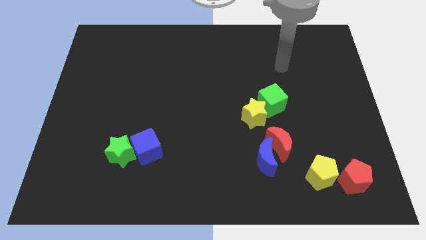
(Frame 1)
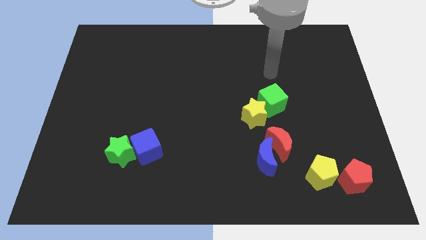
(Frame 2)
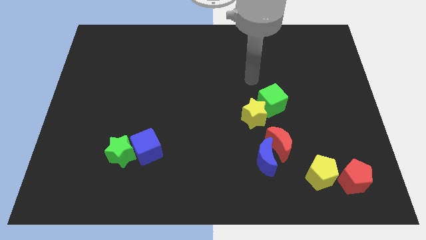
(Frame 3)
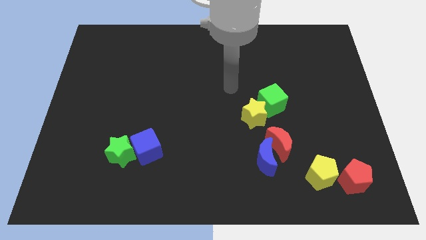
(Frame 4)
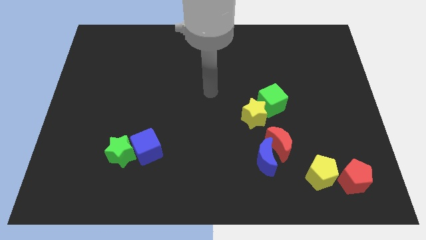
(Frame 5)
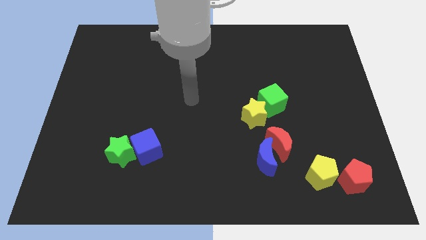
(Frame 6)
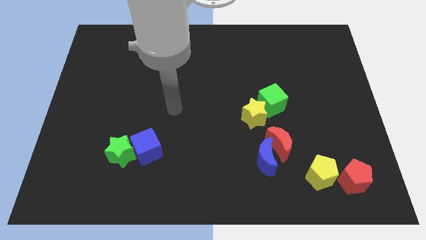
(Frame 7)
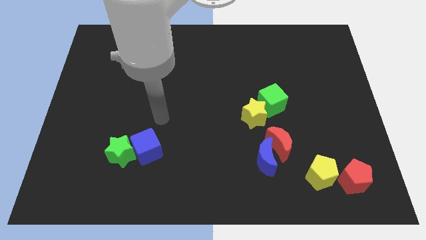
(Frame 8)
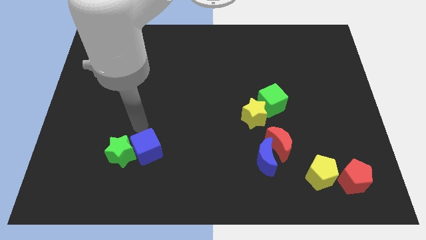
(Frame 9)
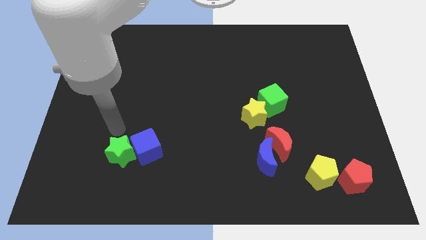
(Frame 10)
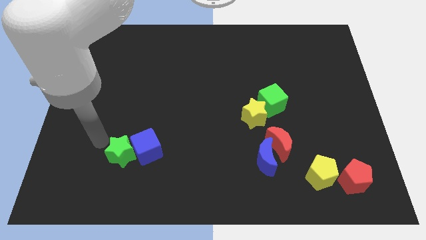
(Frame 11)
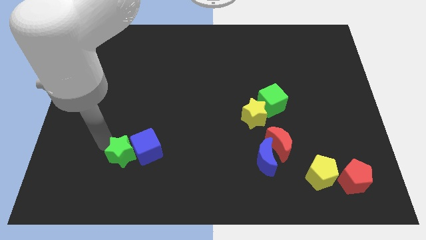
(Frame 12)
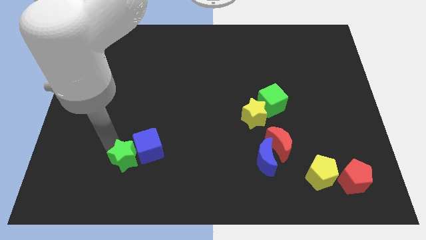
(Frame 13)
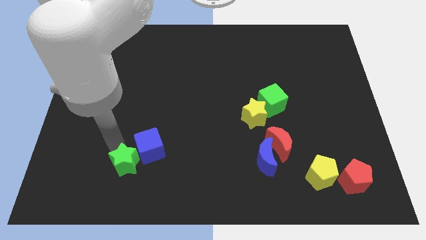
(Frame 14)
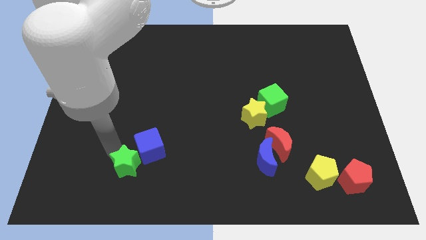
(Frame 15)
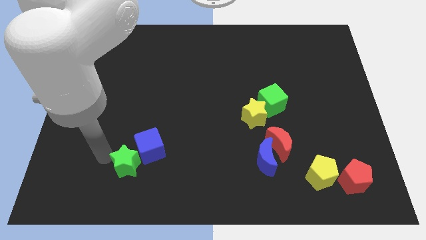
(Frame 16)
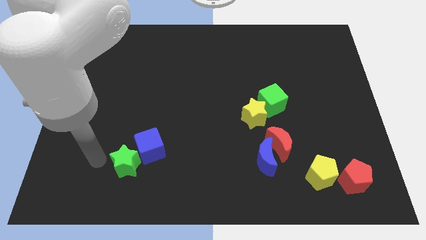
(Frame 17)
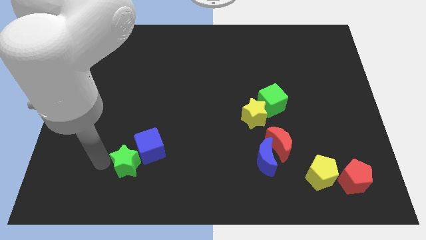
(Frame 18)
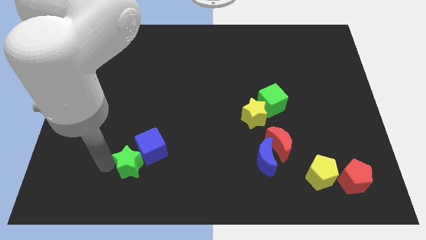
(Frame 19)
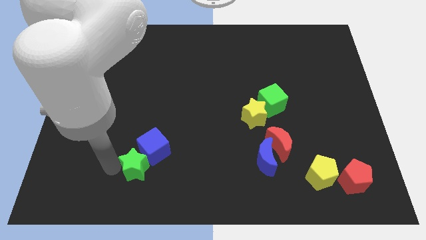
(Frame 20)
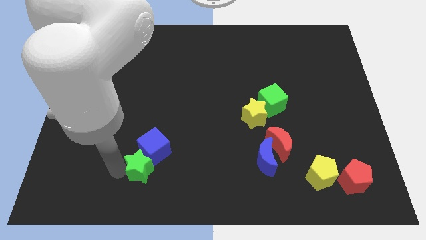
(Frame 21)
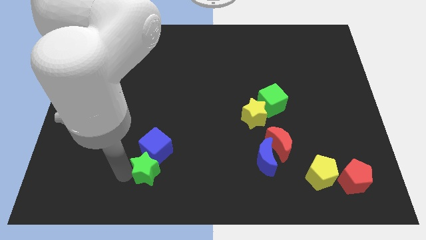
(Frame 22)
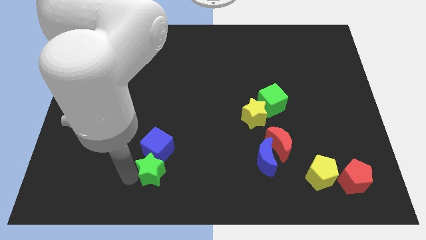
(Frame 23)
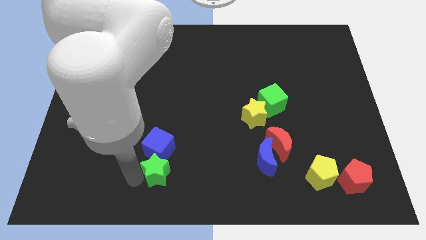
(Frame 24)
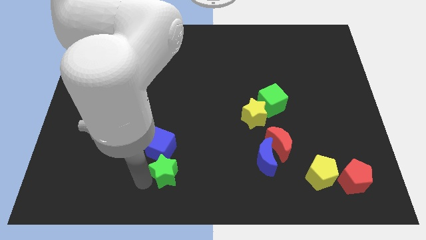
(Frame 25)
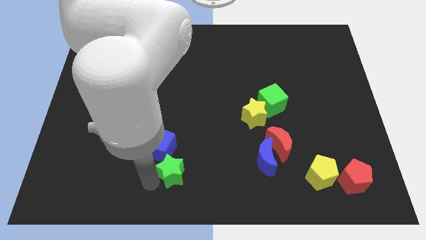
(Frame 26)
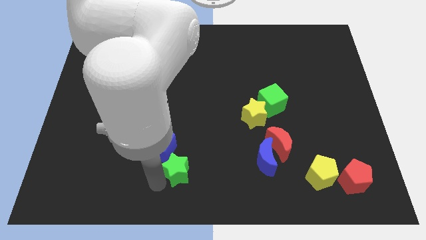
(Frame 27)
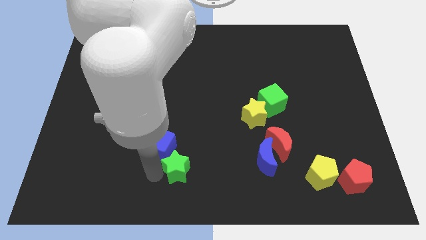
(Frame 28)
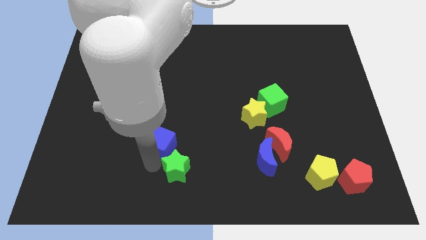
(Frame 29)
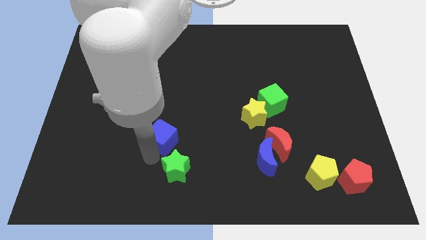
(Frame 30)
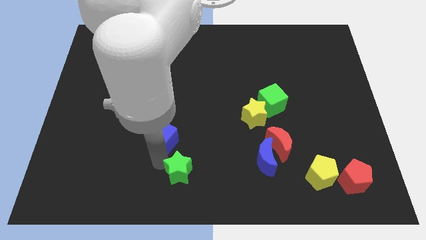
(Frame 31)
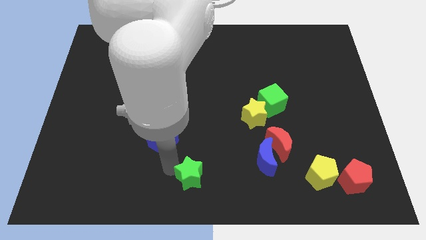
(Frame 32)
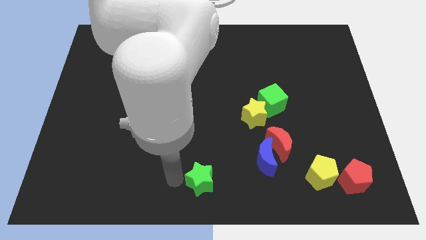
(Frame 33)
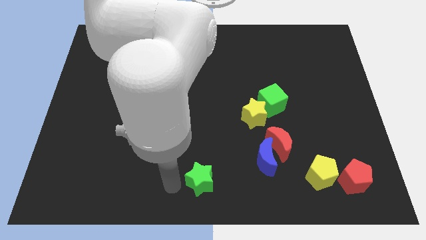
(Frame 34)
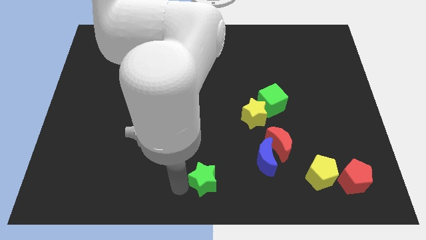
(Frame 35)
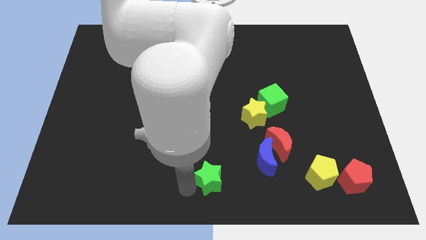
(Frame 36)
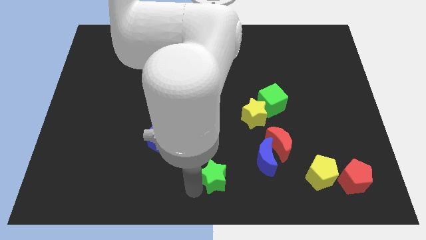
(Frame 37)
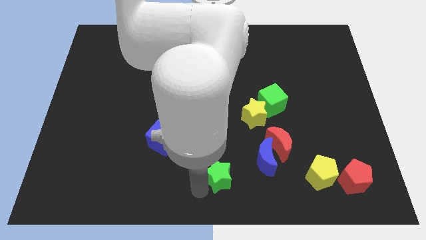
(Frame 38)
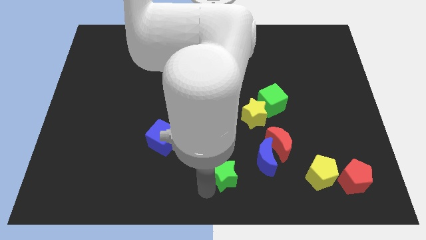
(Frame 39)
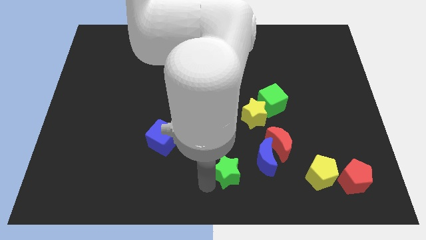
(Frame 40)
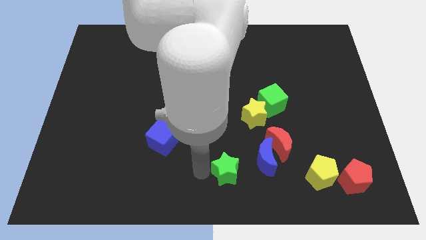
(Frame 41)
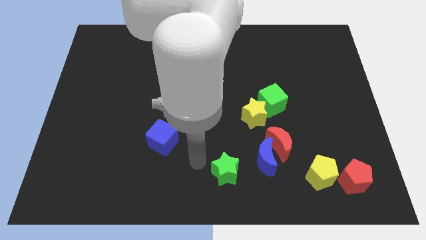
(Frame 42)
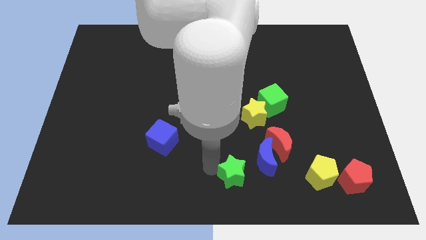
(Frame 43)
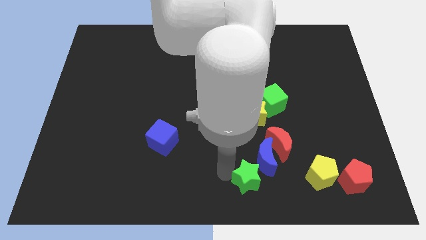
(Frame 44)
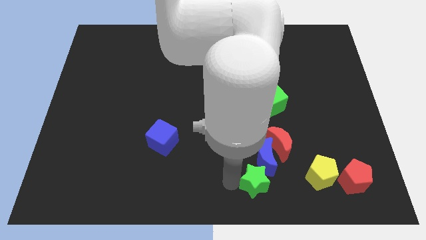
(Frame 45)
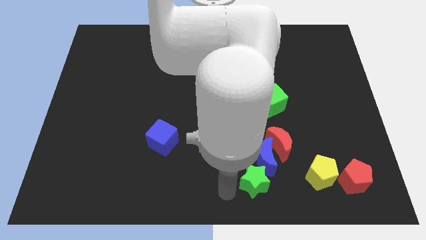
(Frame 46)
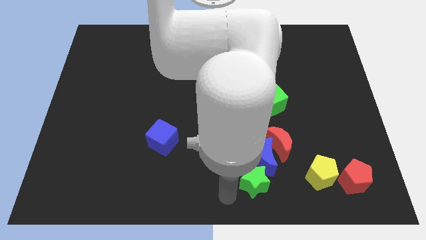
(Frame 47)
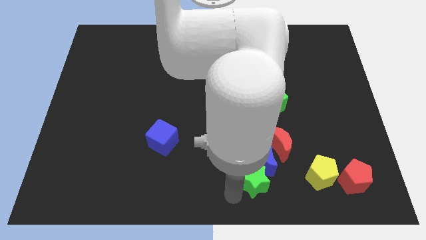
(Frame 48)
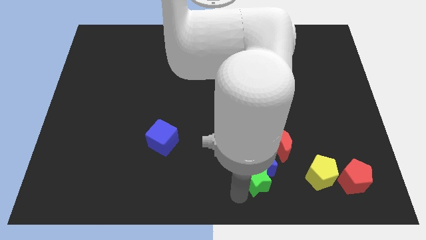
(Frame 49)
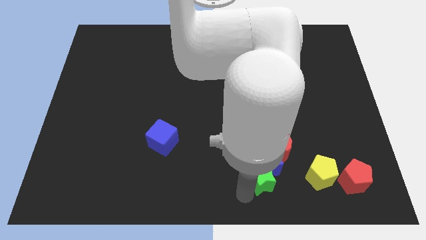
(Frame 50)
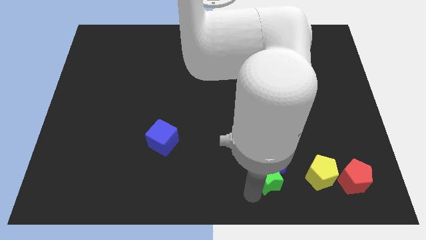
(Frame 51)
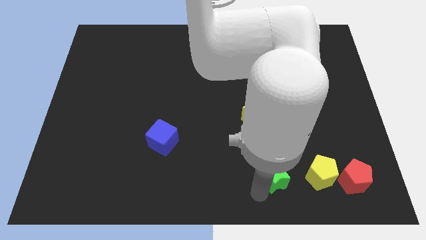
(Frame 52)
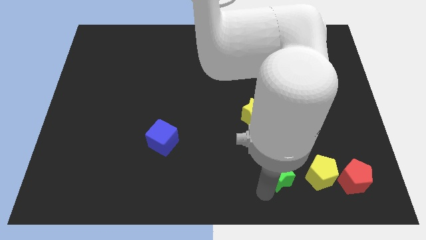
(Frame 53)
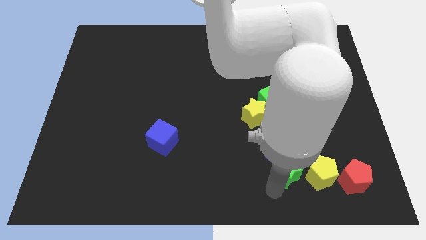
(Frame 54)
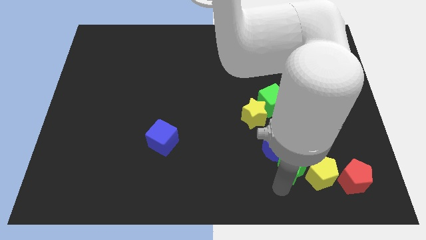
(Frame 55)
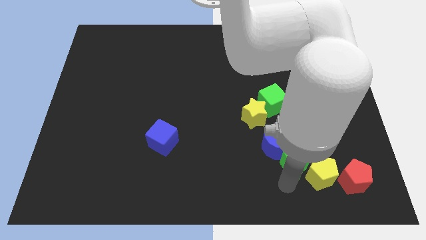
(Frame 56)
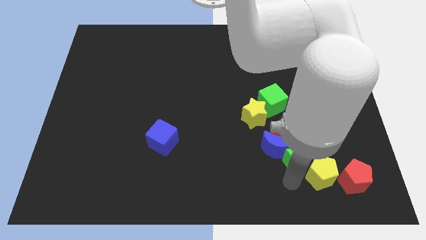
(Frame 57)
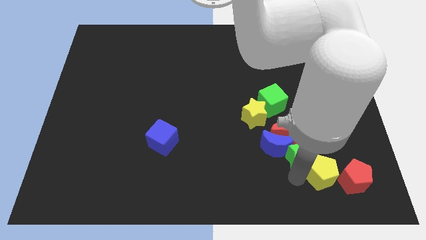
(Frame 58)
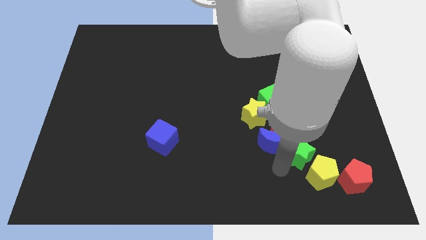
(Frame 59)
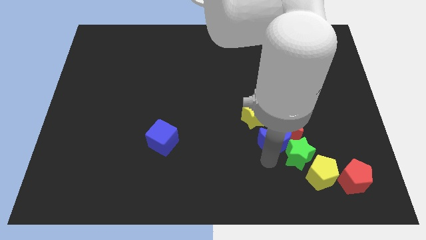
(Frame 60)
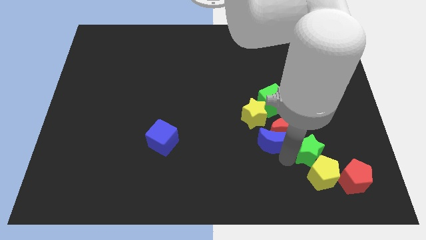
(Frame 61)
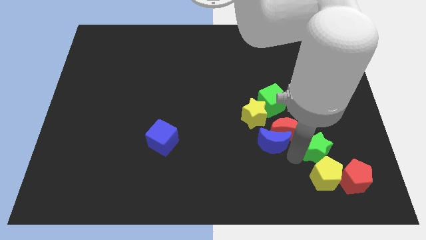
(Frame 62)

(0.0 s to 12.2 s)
put the green star diagonally up and to the right of the yellow pentagon
